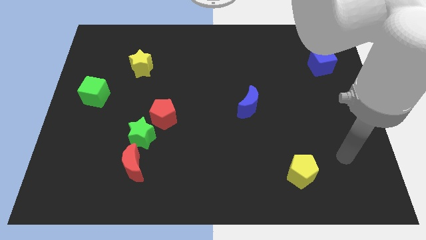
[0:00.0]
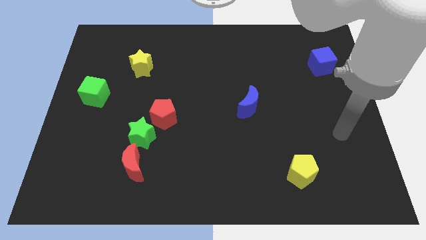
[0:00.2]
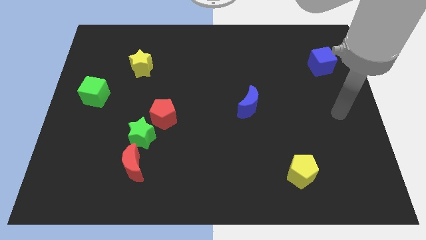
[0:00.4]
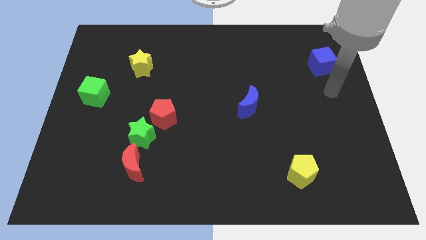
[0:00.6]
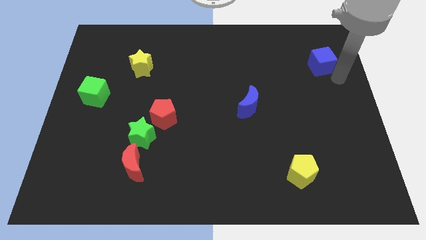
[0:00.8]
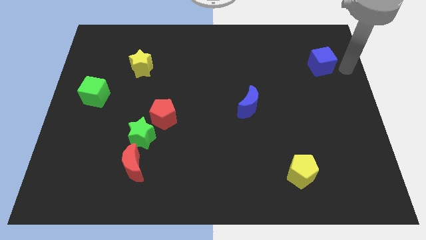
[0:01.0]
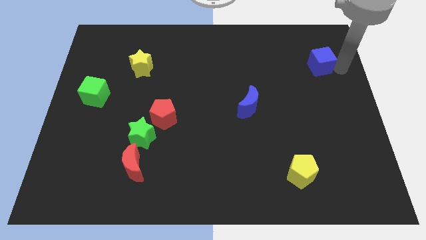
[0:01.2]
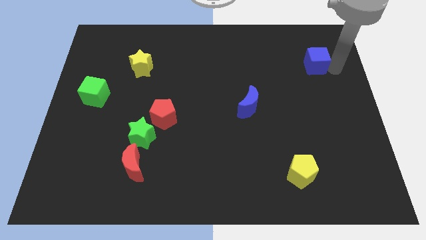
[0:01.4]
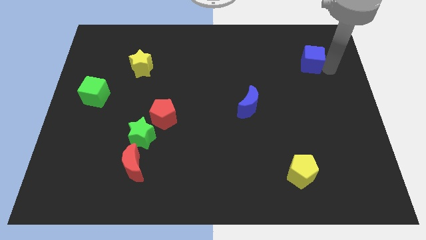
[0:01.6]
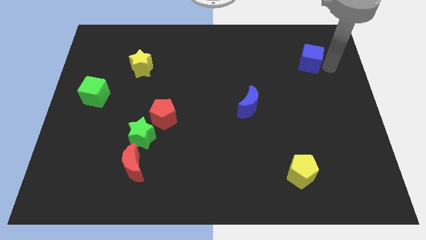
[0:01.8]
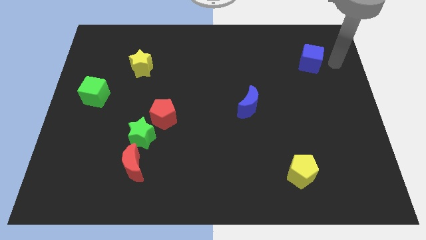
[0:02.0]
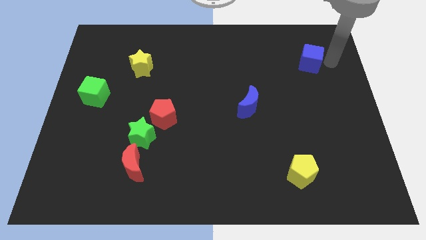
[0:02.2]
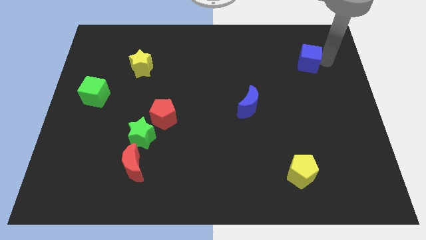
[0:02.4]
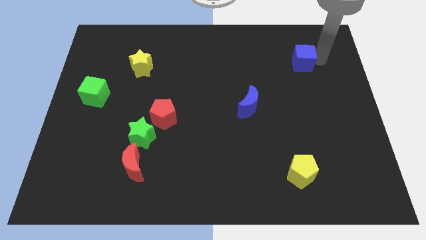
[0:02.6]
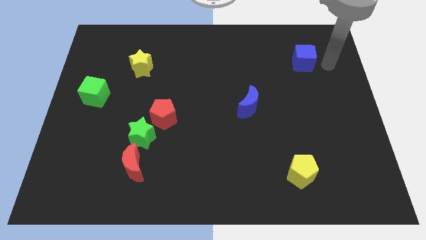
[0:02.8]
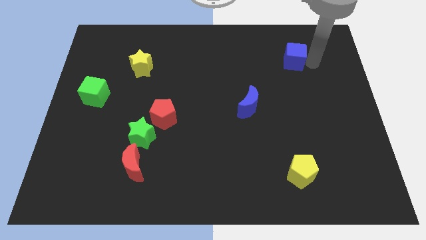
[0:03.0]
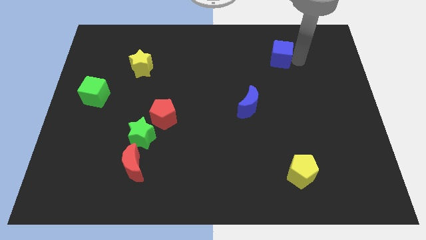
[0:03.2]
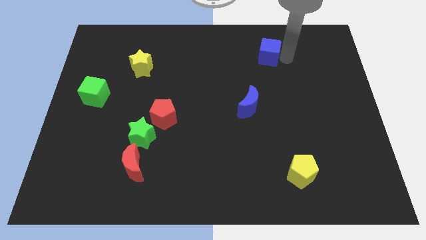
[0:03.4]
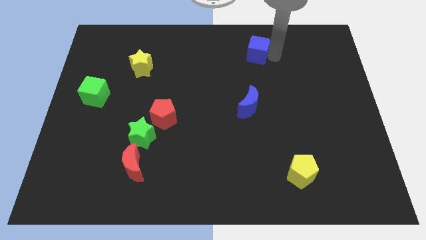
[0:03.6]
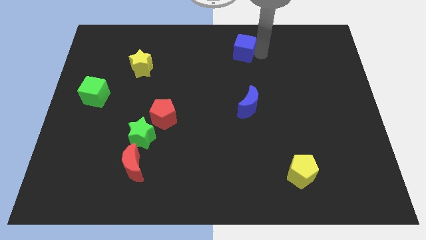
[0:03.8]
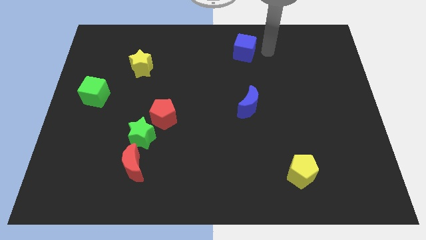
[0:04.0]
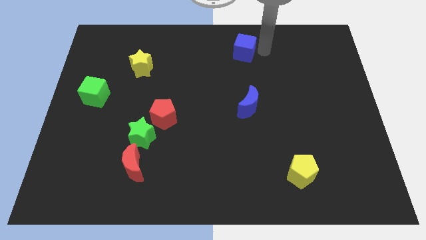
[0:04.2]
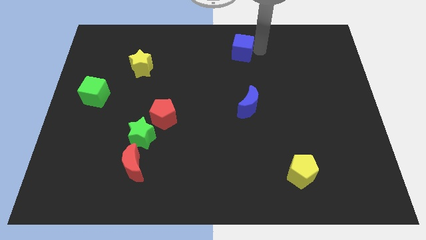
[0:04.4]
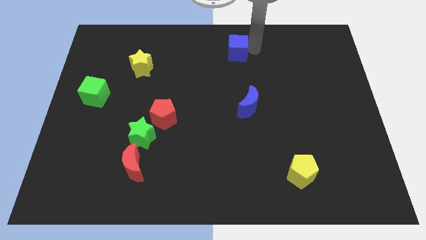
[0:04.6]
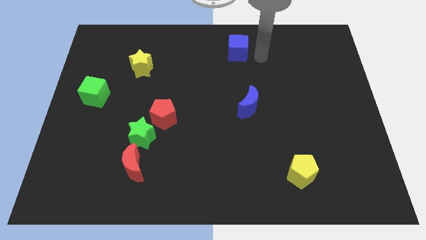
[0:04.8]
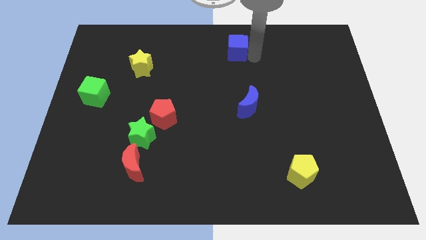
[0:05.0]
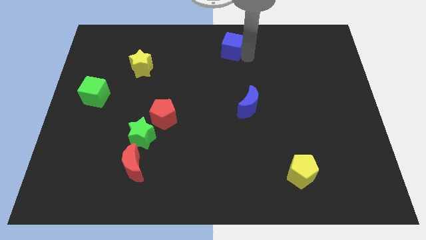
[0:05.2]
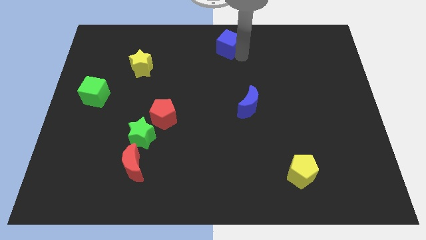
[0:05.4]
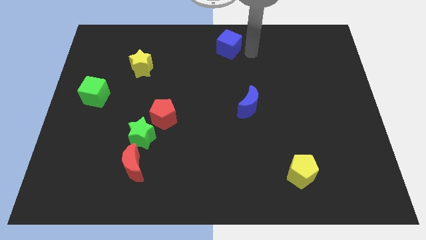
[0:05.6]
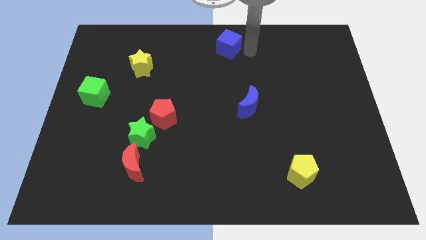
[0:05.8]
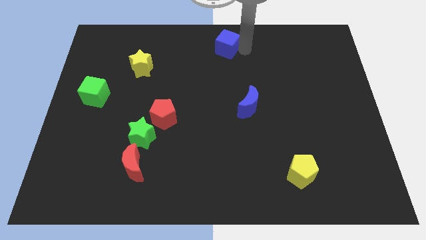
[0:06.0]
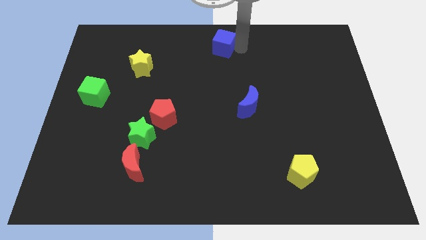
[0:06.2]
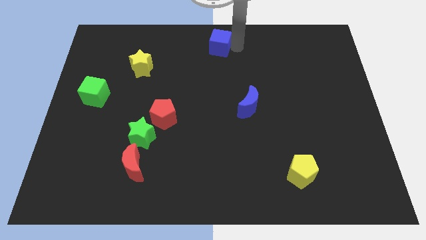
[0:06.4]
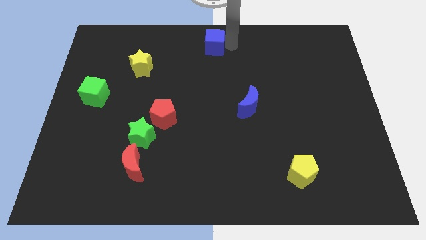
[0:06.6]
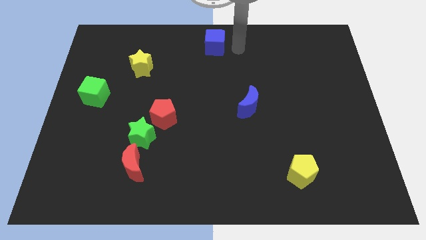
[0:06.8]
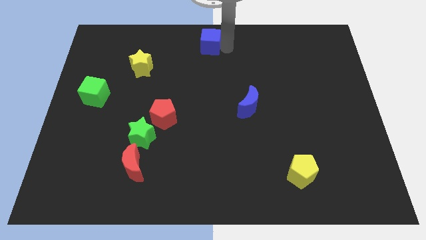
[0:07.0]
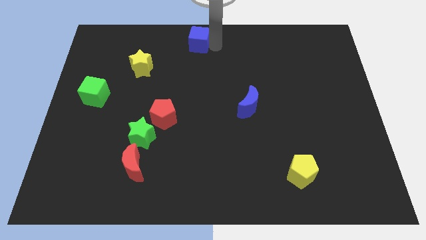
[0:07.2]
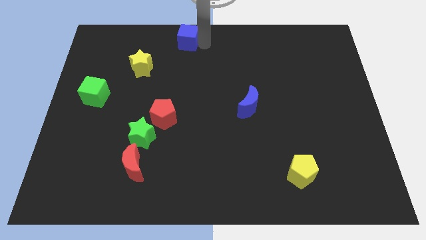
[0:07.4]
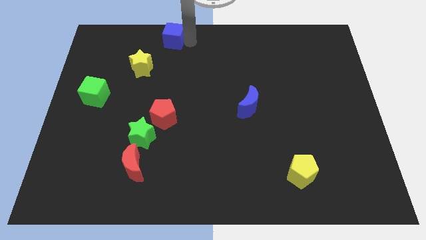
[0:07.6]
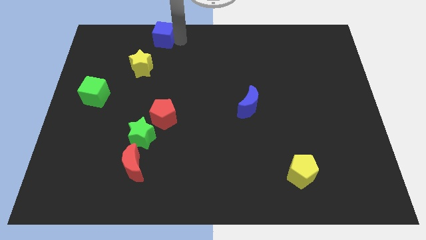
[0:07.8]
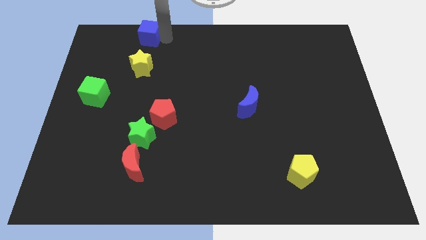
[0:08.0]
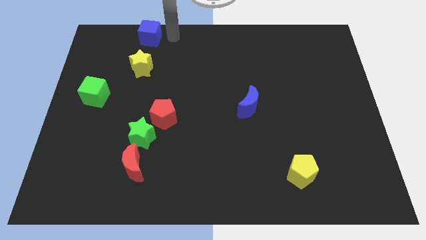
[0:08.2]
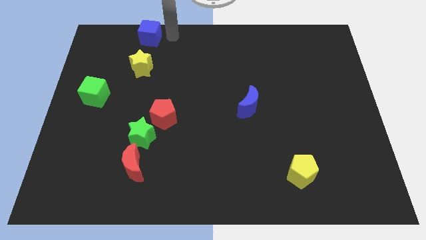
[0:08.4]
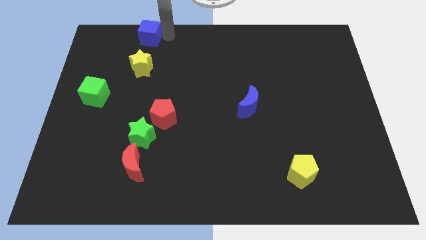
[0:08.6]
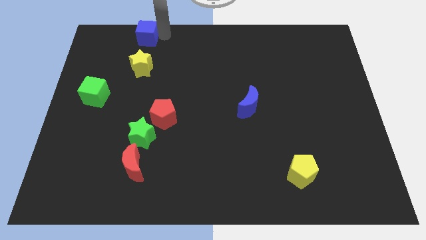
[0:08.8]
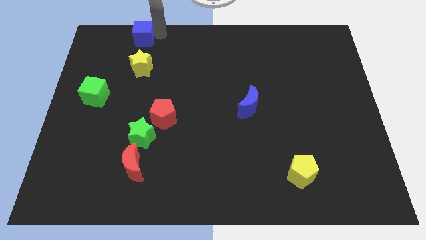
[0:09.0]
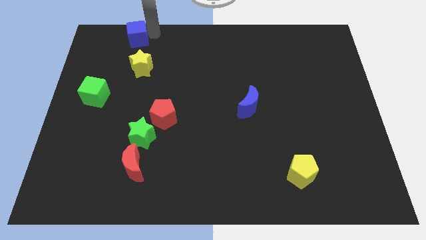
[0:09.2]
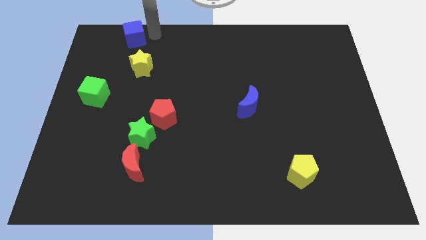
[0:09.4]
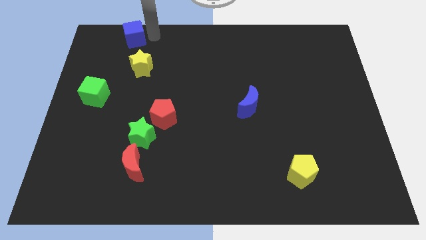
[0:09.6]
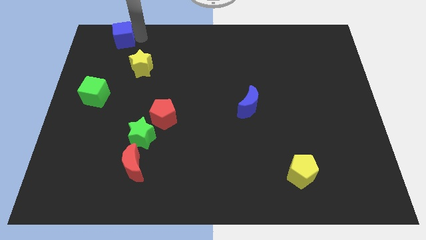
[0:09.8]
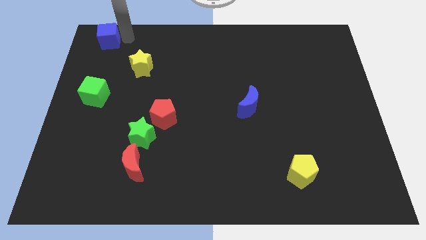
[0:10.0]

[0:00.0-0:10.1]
push the blue cube to the top left

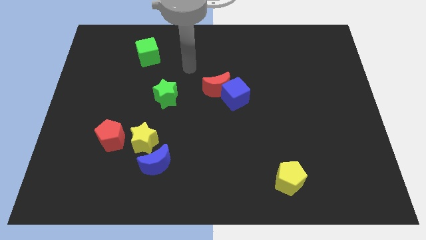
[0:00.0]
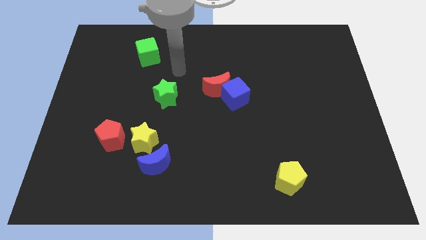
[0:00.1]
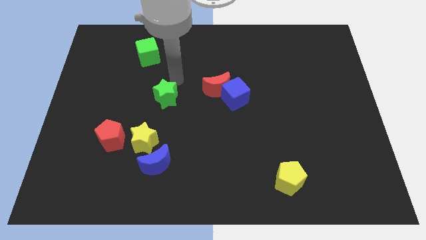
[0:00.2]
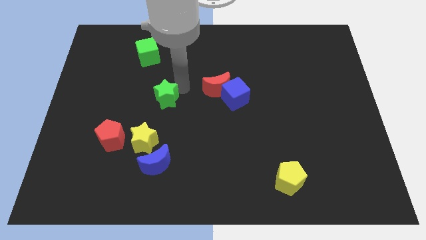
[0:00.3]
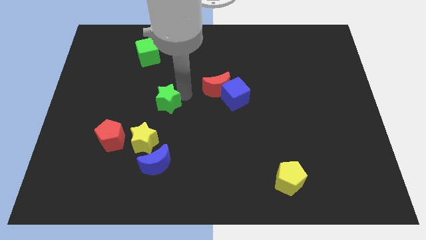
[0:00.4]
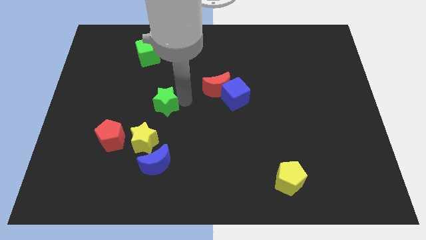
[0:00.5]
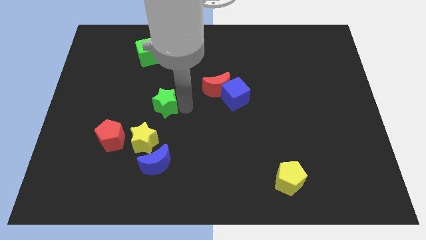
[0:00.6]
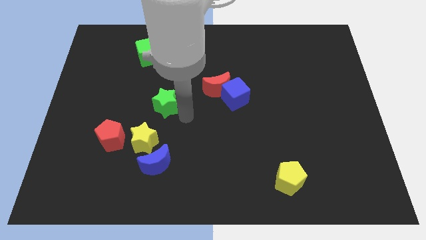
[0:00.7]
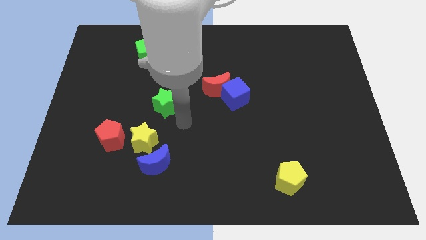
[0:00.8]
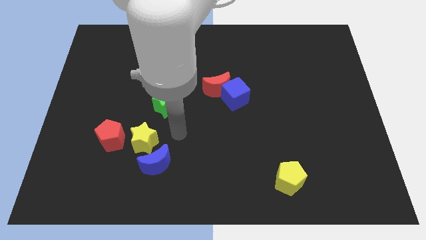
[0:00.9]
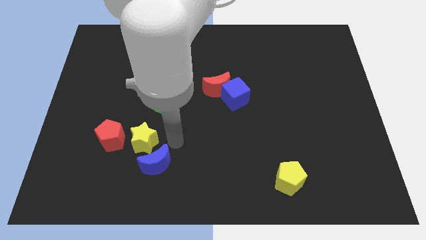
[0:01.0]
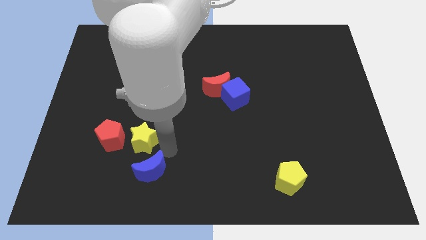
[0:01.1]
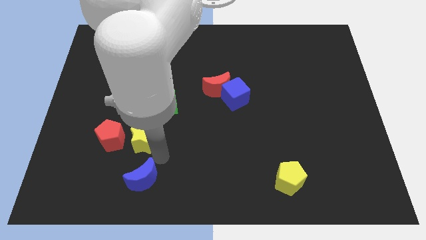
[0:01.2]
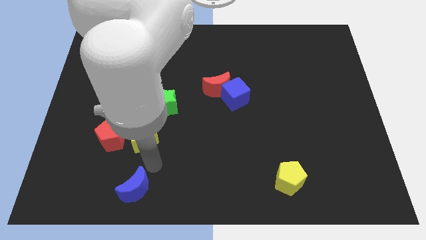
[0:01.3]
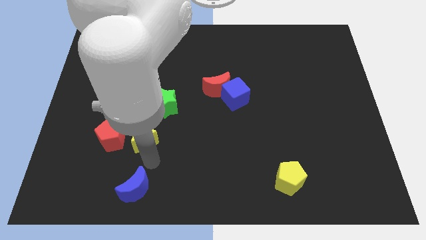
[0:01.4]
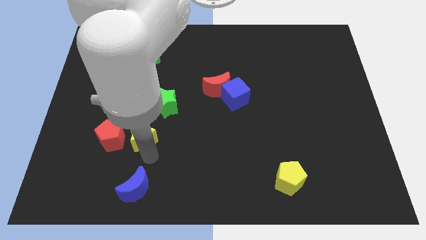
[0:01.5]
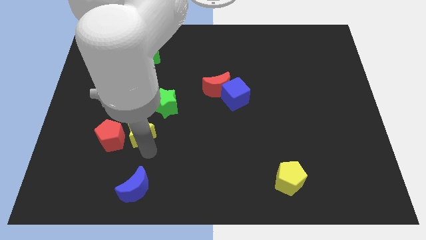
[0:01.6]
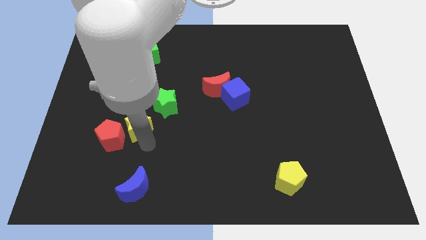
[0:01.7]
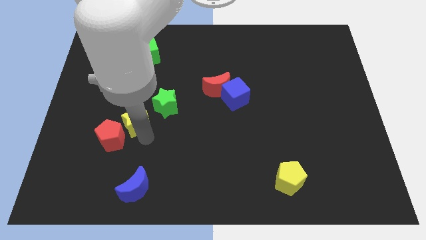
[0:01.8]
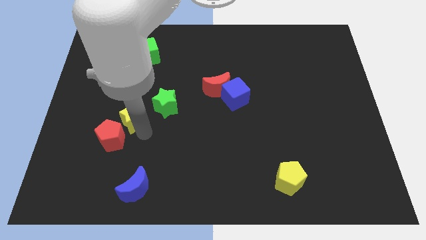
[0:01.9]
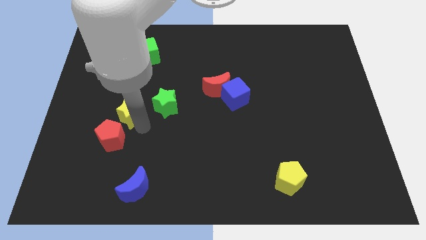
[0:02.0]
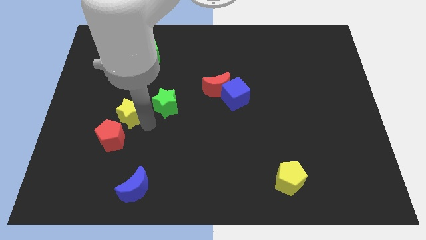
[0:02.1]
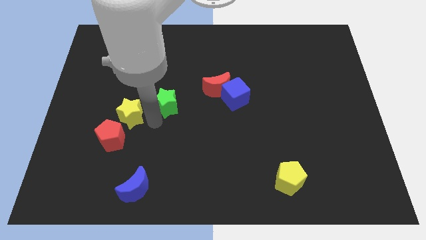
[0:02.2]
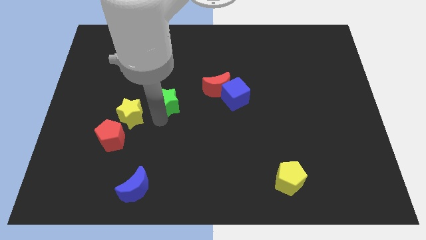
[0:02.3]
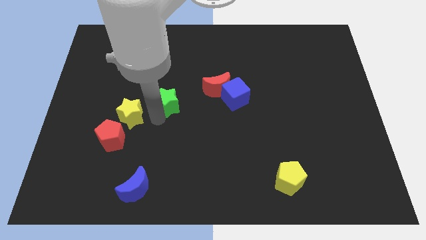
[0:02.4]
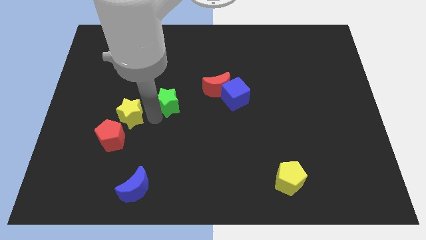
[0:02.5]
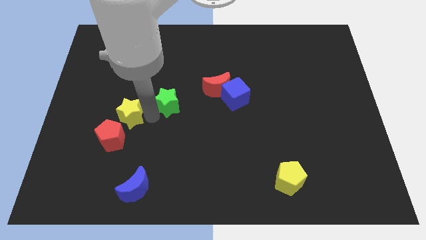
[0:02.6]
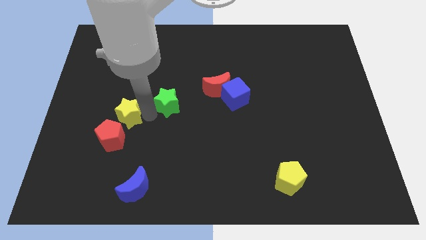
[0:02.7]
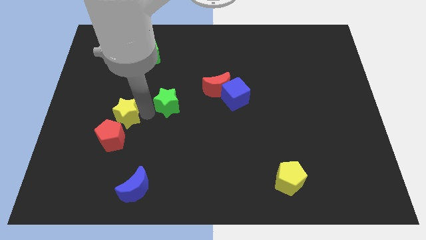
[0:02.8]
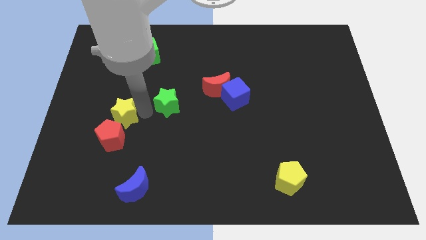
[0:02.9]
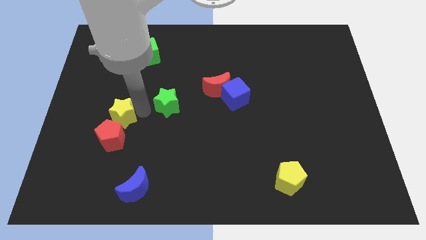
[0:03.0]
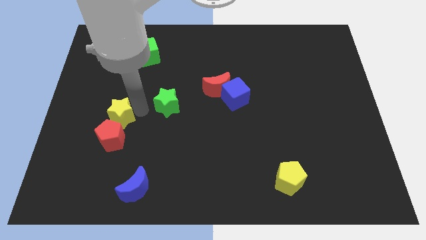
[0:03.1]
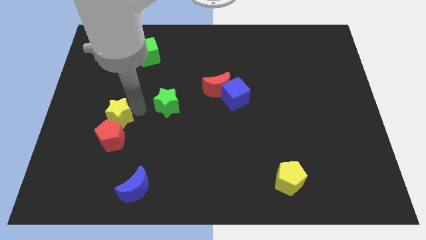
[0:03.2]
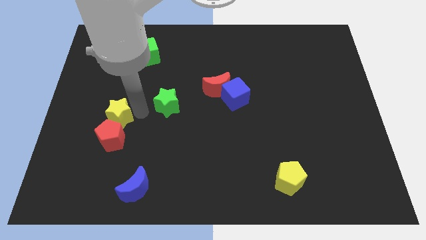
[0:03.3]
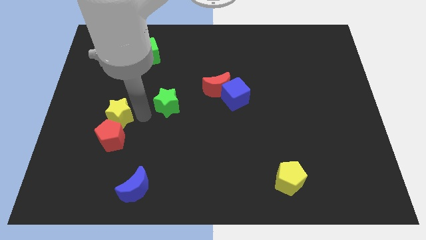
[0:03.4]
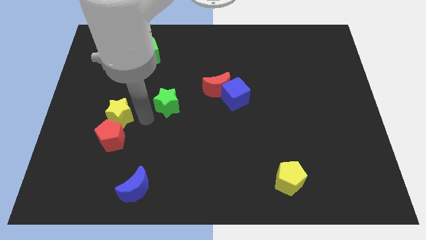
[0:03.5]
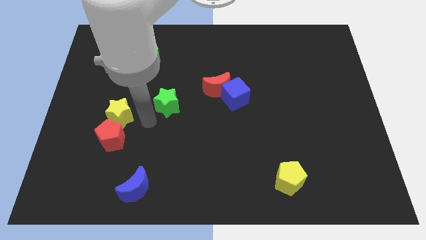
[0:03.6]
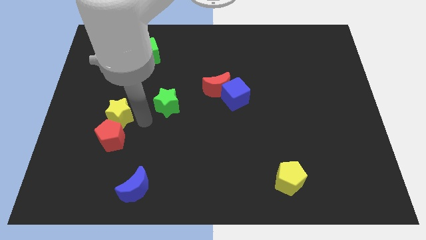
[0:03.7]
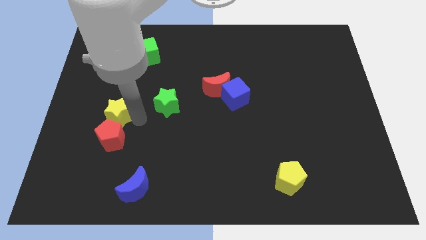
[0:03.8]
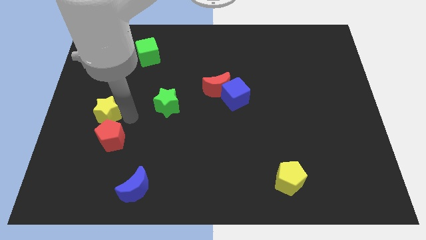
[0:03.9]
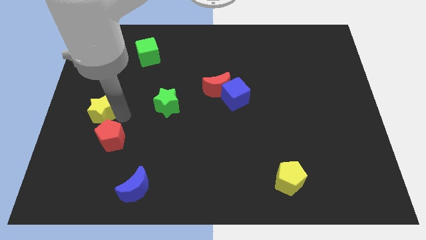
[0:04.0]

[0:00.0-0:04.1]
move the yellow star to the left side of the board
